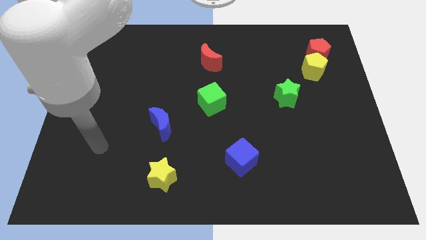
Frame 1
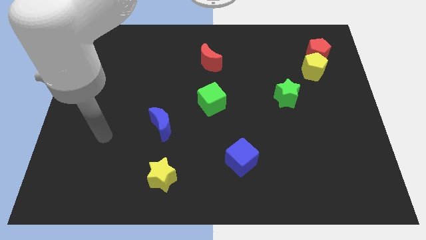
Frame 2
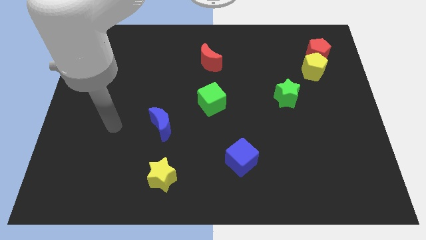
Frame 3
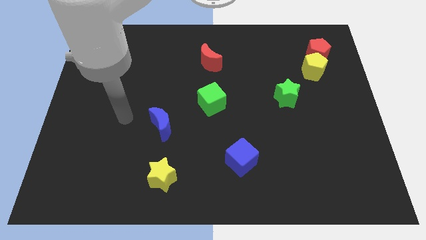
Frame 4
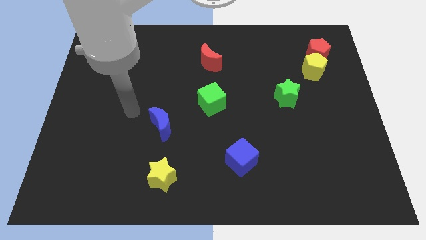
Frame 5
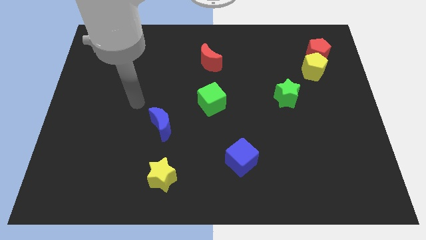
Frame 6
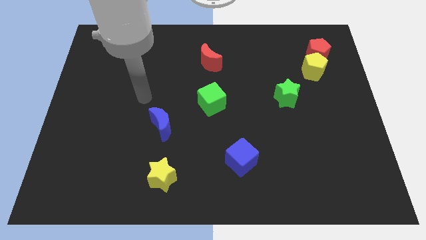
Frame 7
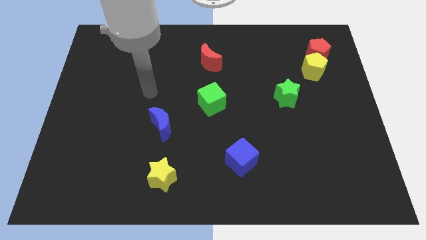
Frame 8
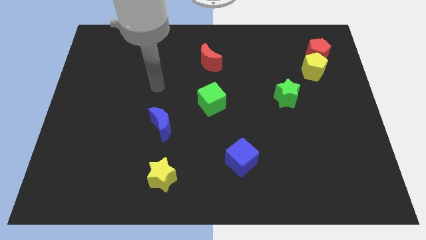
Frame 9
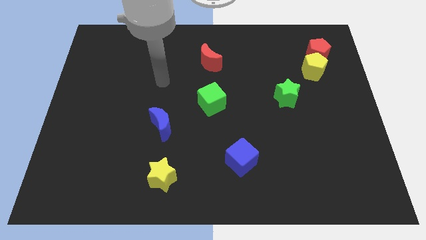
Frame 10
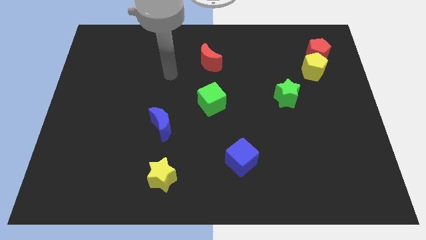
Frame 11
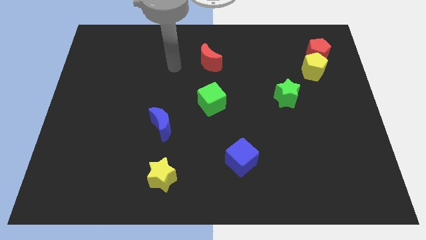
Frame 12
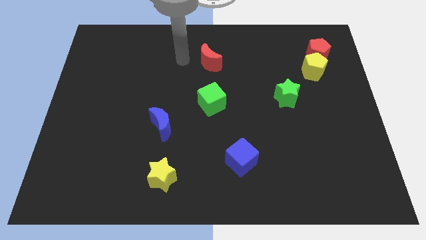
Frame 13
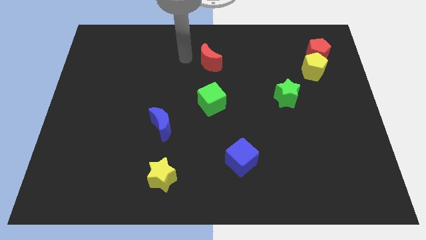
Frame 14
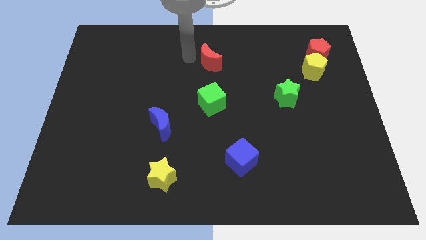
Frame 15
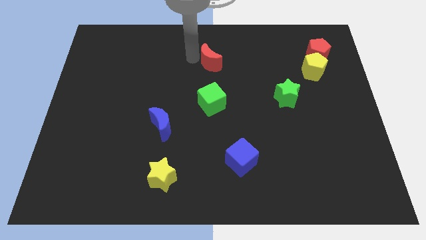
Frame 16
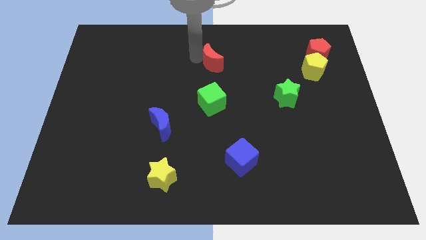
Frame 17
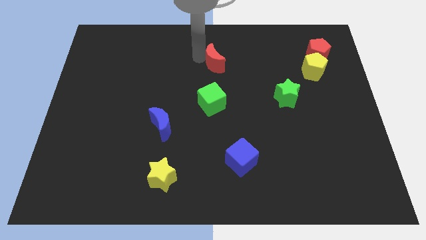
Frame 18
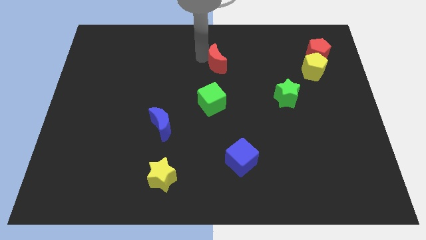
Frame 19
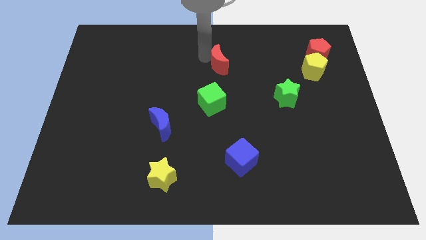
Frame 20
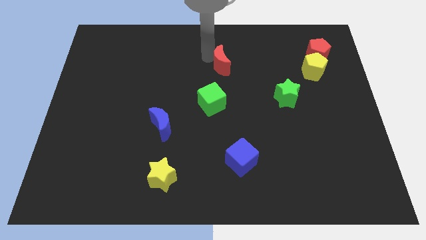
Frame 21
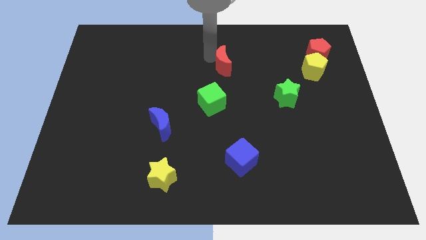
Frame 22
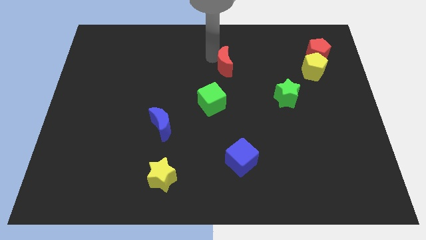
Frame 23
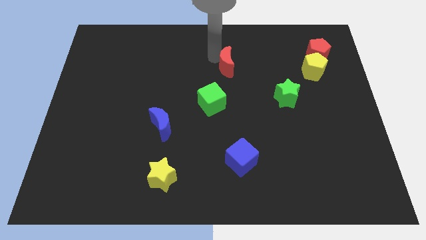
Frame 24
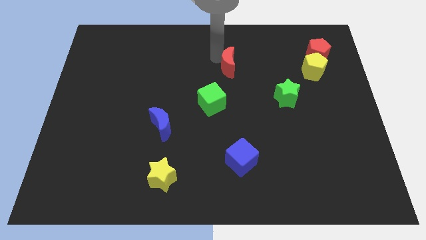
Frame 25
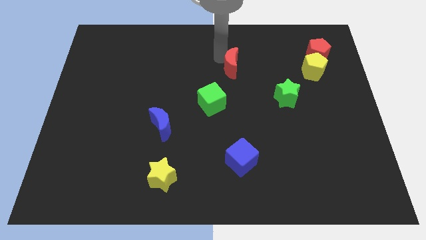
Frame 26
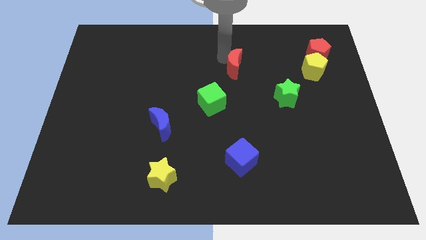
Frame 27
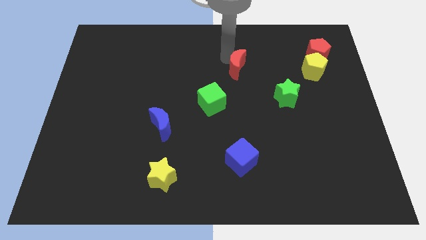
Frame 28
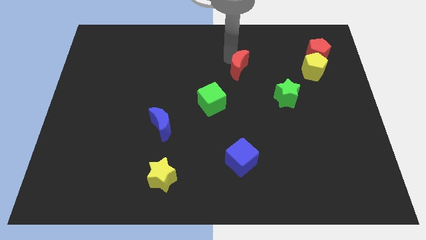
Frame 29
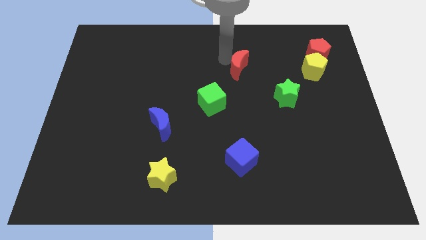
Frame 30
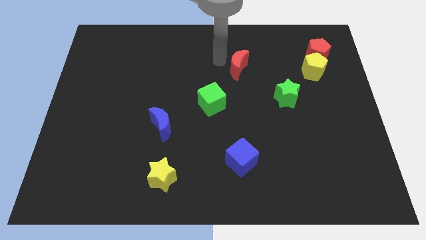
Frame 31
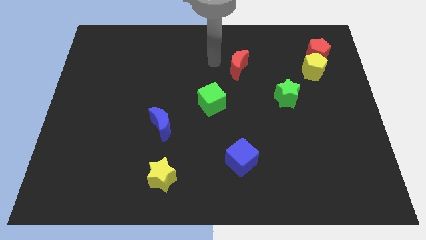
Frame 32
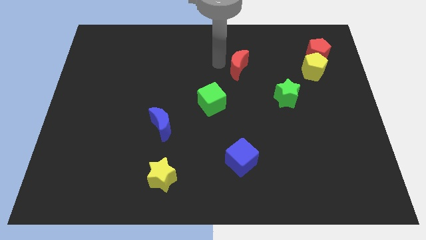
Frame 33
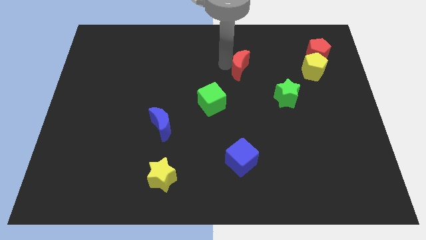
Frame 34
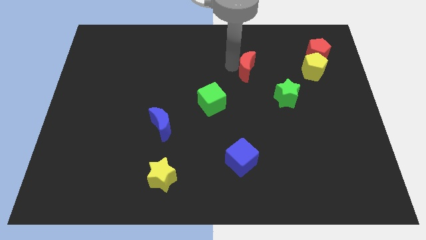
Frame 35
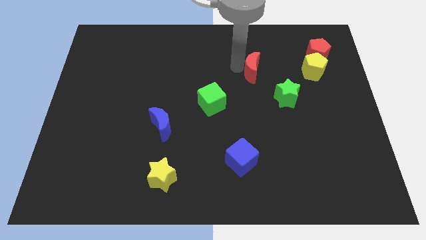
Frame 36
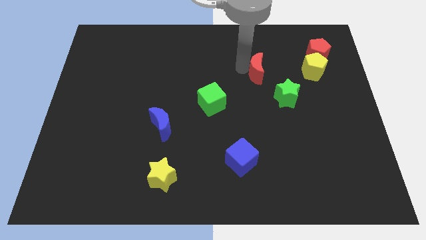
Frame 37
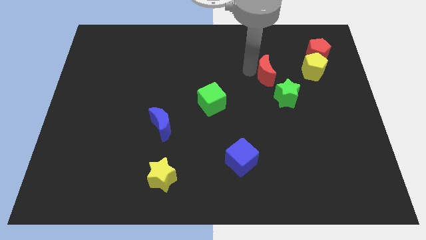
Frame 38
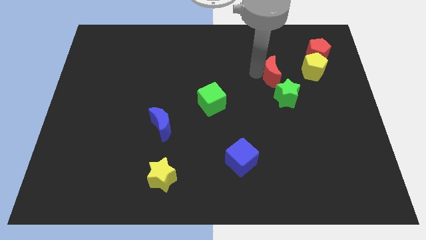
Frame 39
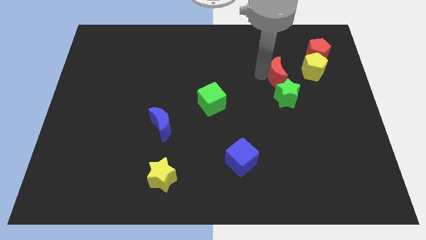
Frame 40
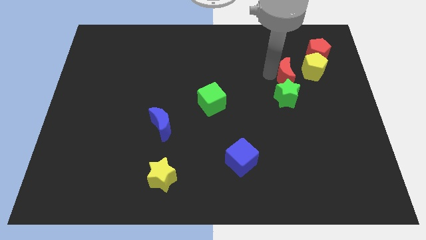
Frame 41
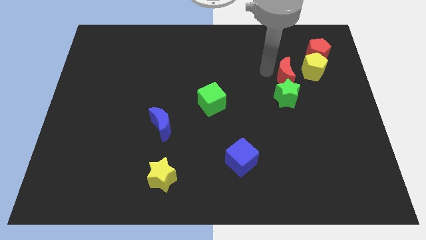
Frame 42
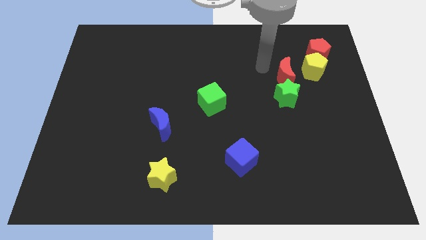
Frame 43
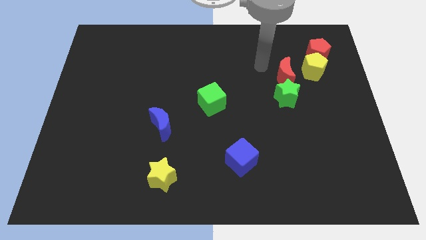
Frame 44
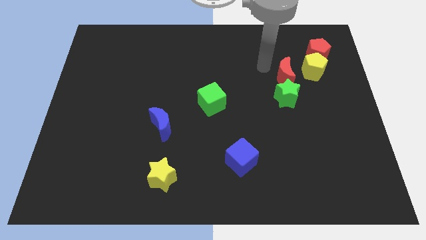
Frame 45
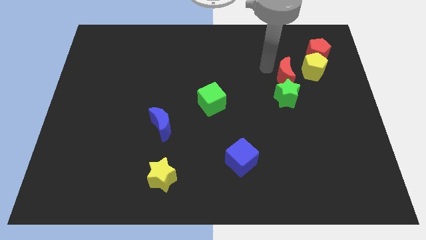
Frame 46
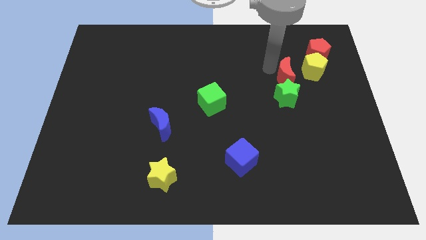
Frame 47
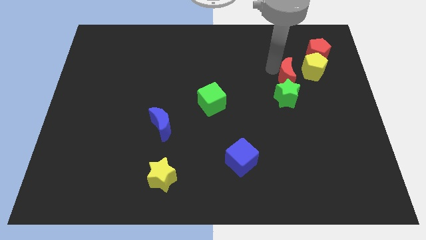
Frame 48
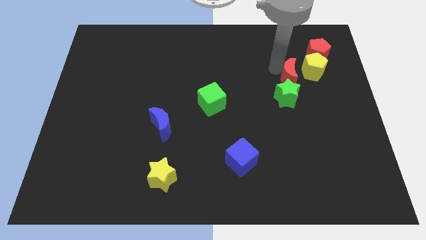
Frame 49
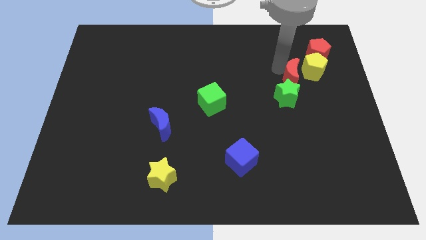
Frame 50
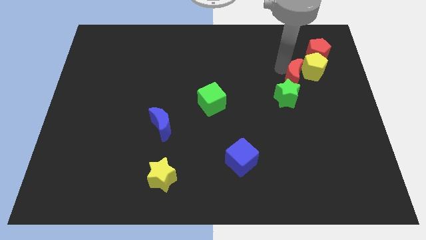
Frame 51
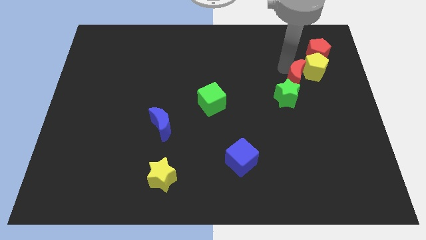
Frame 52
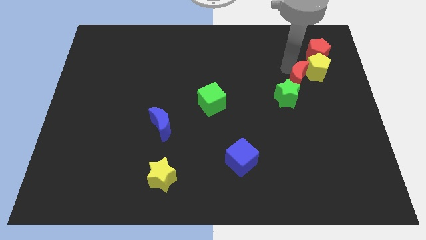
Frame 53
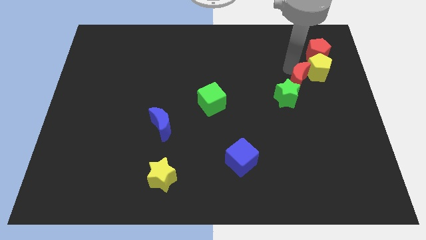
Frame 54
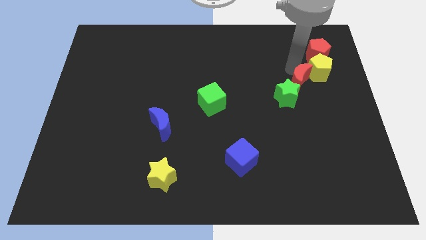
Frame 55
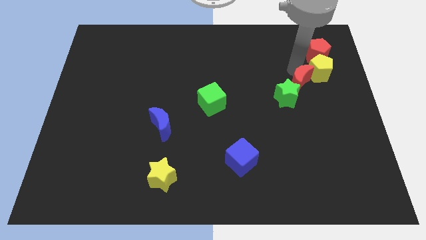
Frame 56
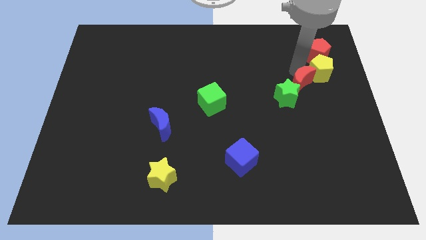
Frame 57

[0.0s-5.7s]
push the red moon right of the green star
